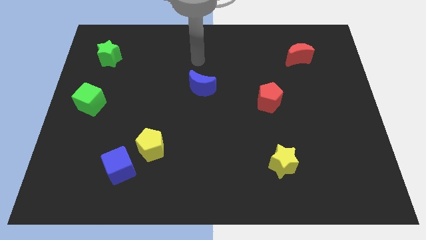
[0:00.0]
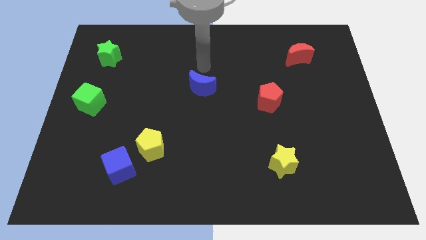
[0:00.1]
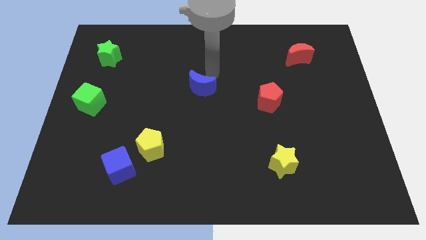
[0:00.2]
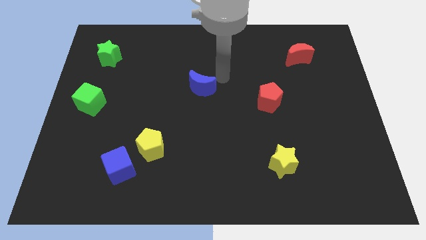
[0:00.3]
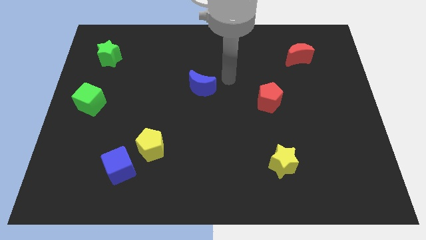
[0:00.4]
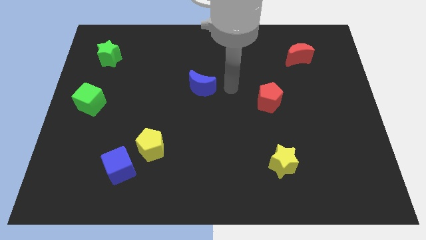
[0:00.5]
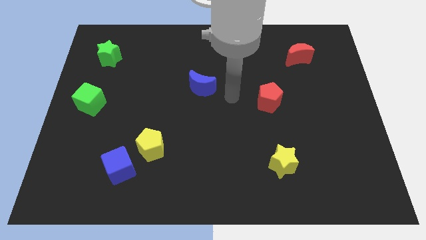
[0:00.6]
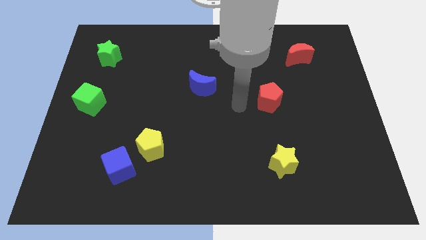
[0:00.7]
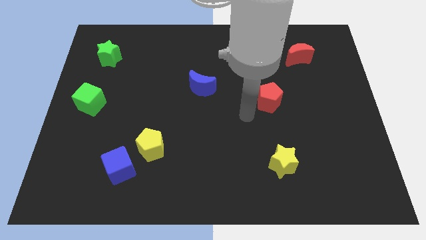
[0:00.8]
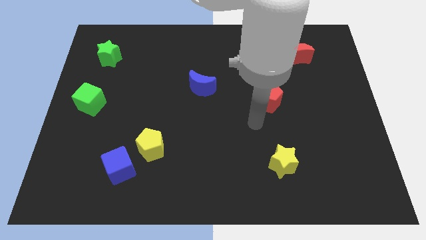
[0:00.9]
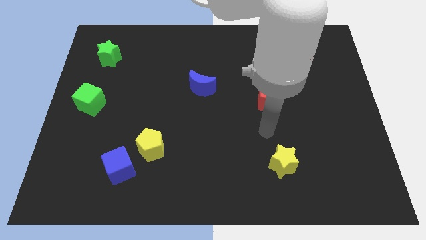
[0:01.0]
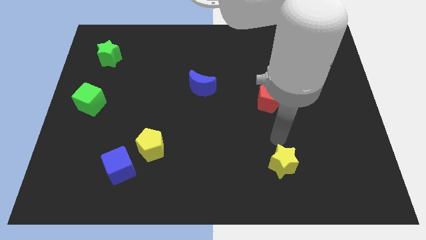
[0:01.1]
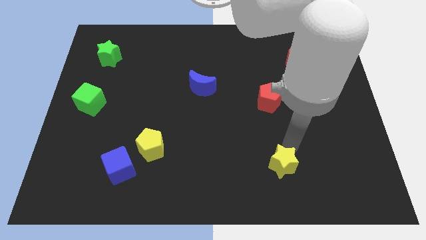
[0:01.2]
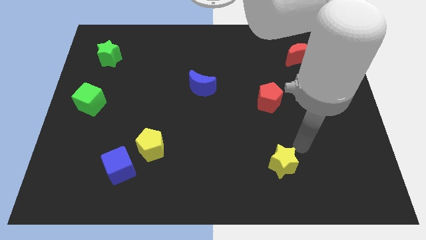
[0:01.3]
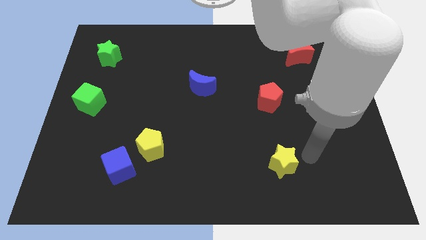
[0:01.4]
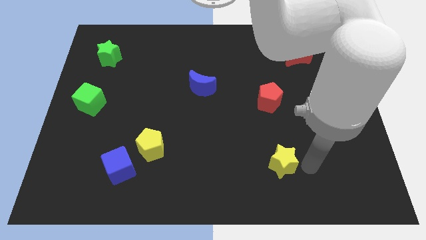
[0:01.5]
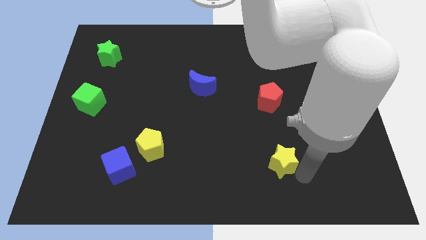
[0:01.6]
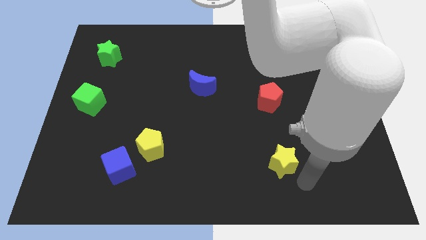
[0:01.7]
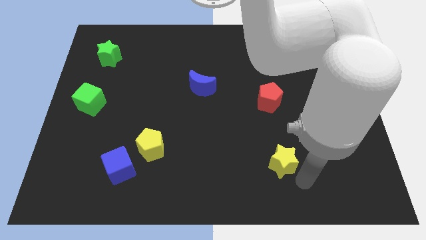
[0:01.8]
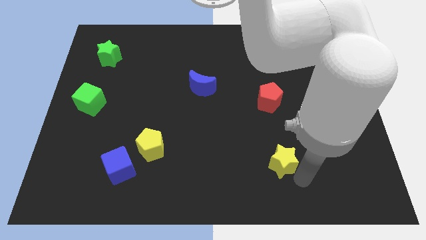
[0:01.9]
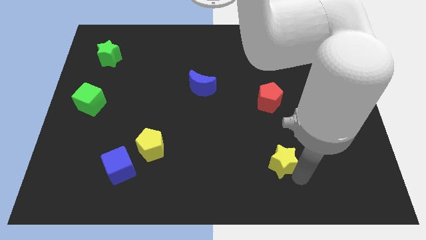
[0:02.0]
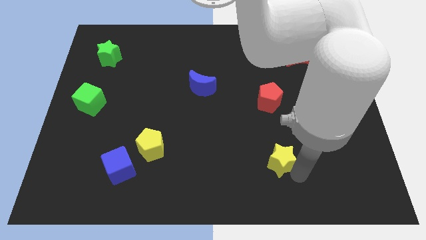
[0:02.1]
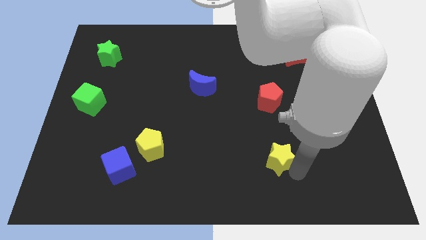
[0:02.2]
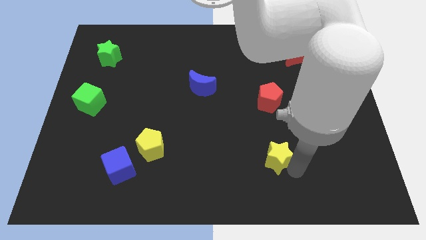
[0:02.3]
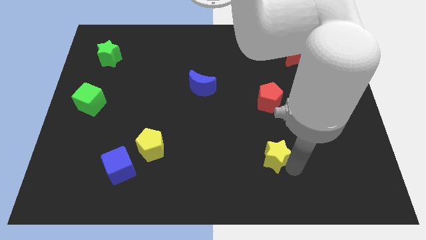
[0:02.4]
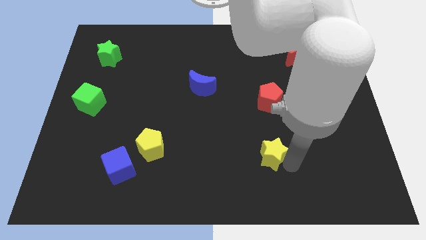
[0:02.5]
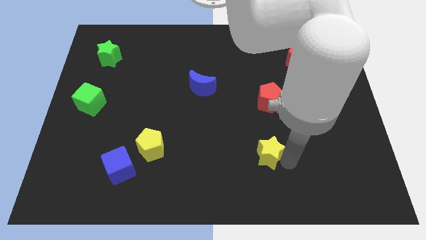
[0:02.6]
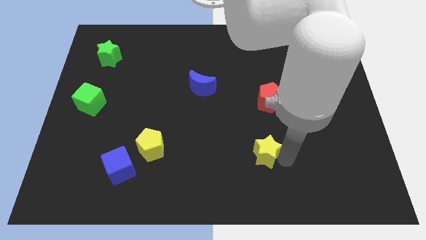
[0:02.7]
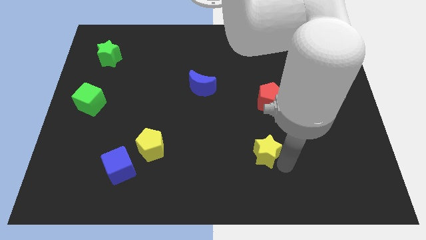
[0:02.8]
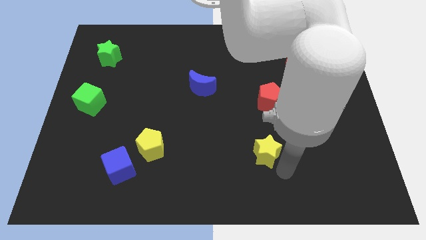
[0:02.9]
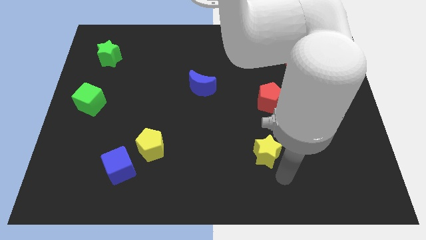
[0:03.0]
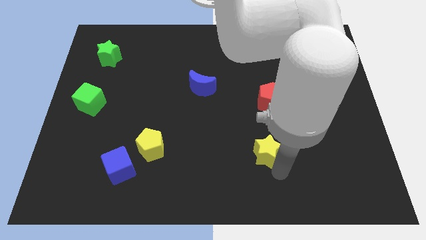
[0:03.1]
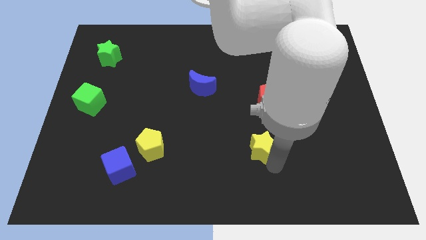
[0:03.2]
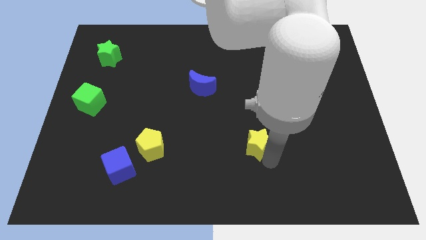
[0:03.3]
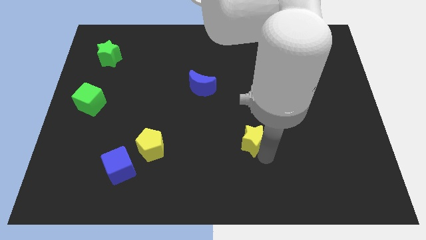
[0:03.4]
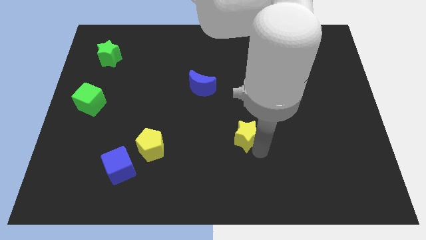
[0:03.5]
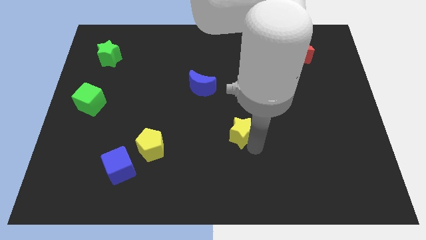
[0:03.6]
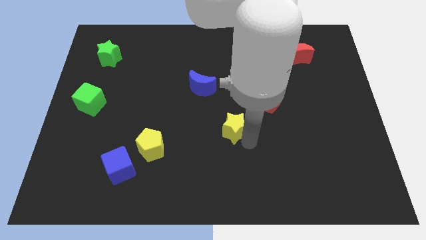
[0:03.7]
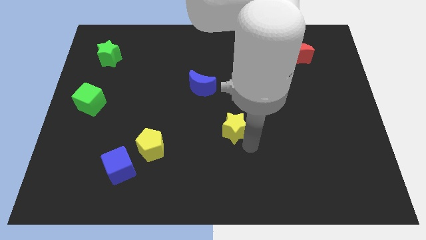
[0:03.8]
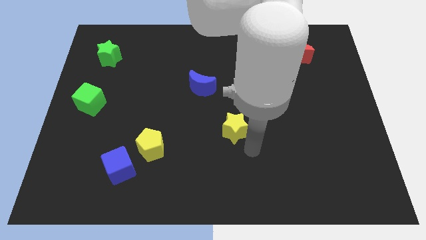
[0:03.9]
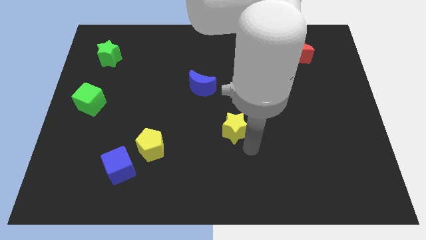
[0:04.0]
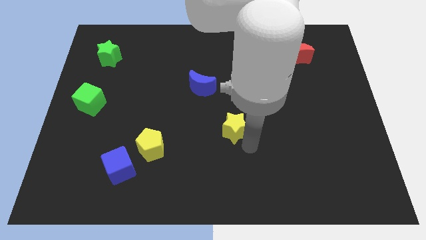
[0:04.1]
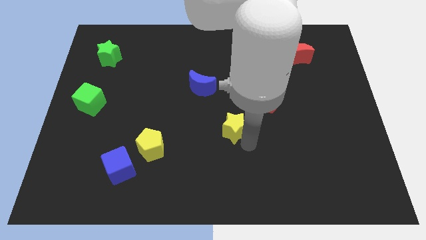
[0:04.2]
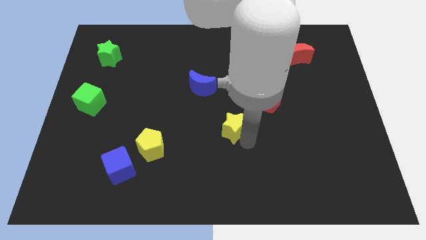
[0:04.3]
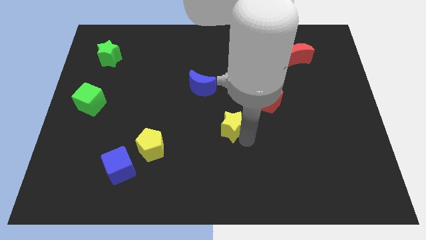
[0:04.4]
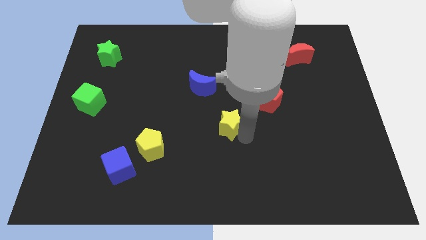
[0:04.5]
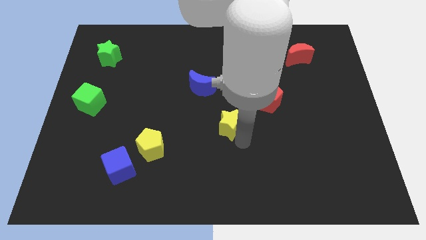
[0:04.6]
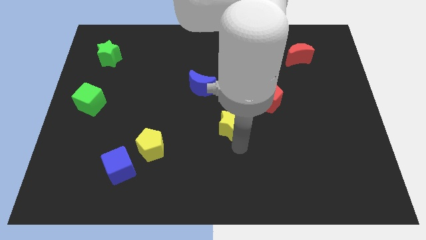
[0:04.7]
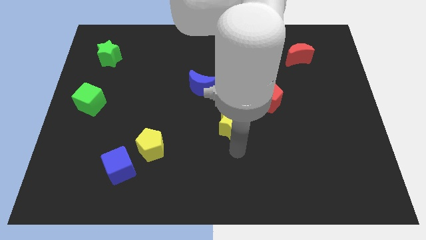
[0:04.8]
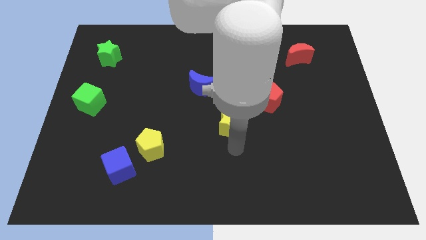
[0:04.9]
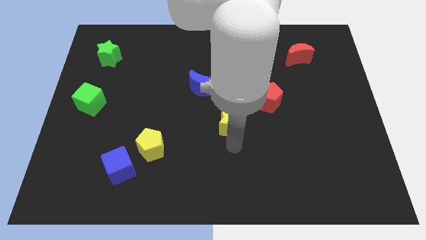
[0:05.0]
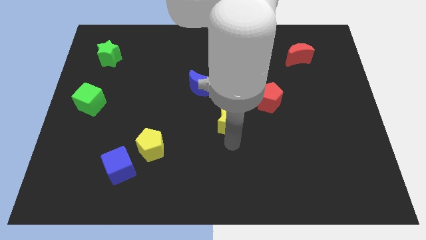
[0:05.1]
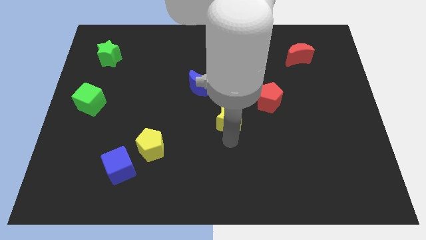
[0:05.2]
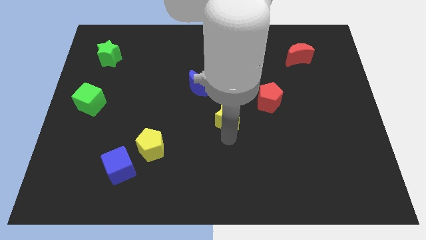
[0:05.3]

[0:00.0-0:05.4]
move the yellow star to the bottom right of the blue moon

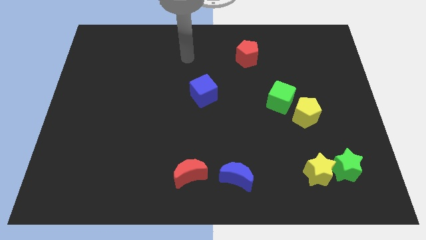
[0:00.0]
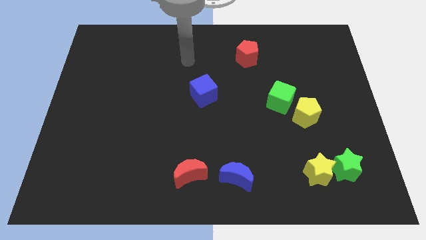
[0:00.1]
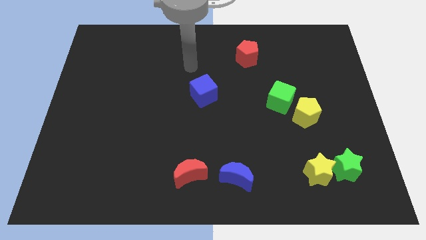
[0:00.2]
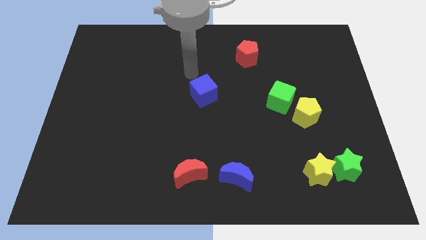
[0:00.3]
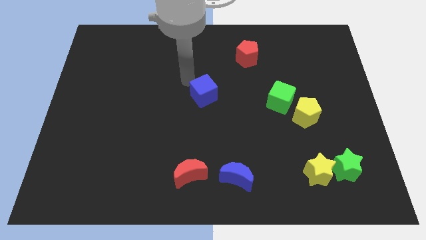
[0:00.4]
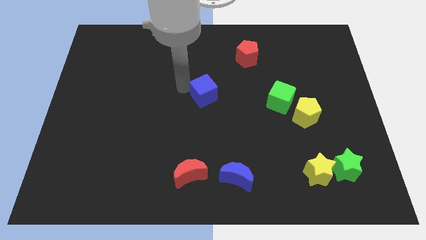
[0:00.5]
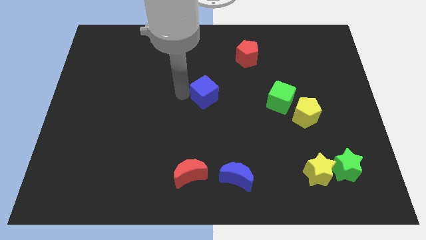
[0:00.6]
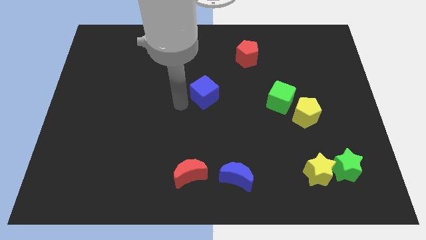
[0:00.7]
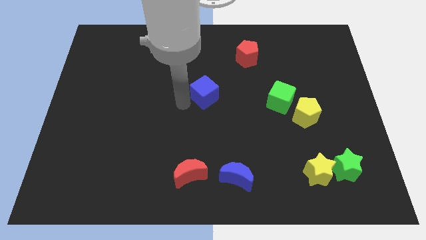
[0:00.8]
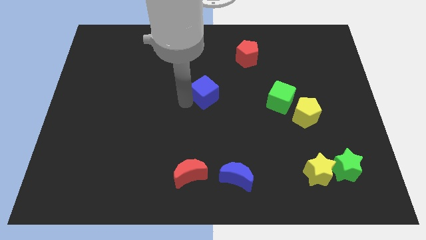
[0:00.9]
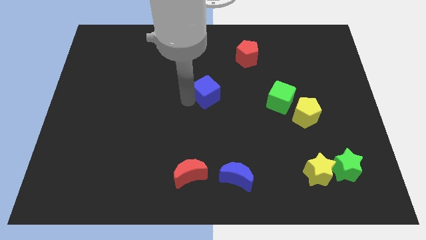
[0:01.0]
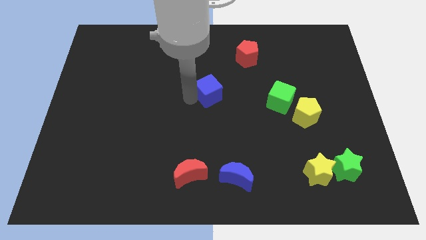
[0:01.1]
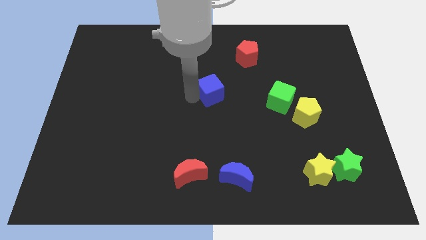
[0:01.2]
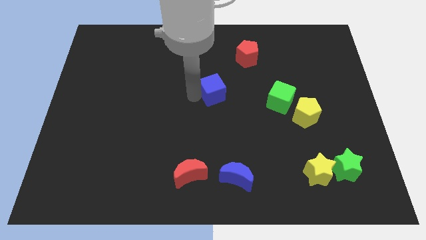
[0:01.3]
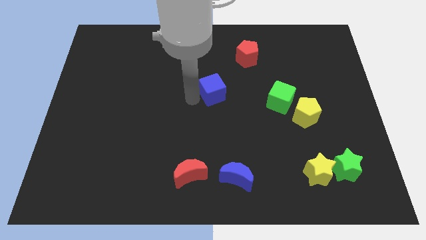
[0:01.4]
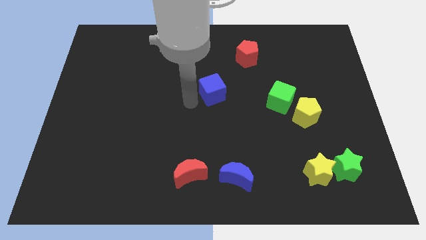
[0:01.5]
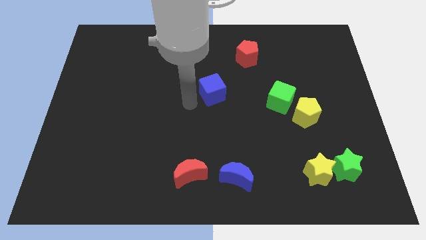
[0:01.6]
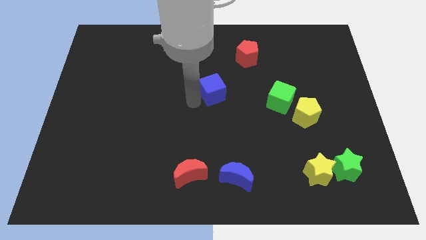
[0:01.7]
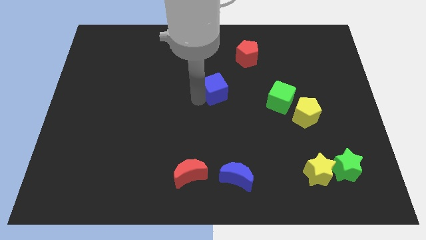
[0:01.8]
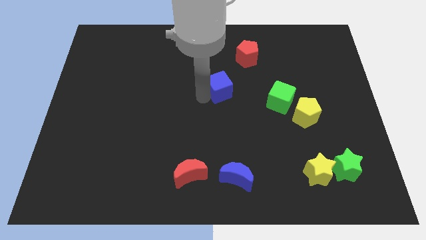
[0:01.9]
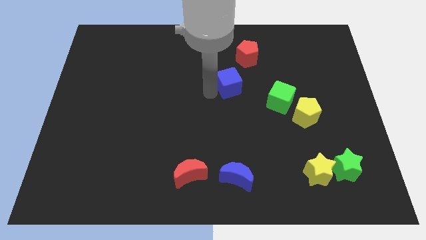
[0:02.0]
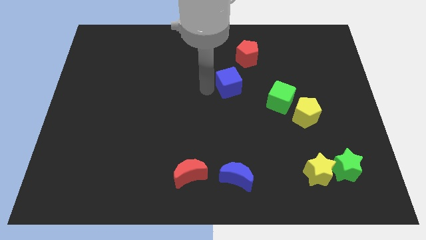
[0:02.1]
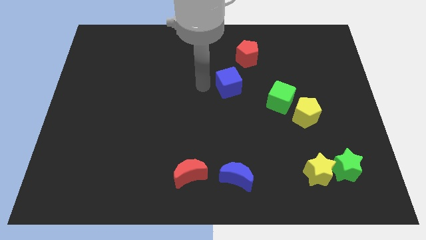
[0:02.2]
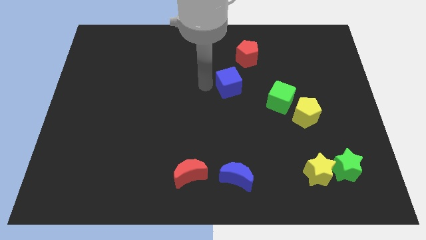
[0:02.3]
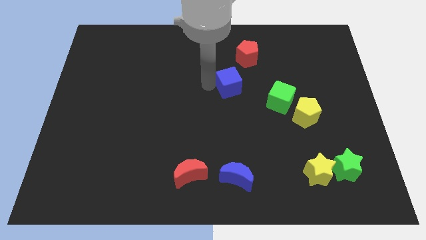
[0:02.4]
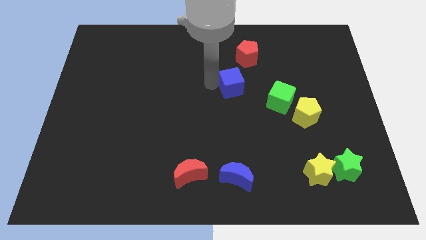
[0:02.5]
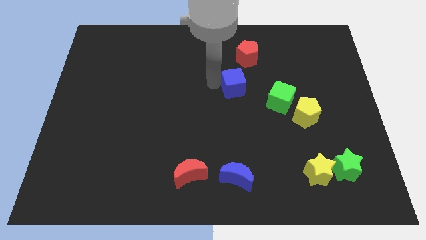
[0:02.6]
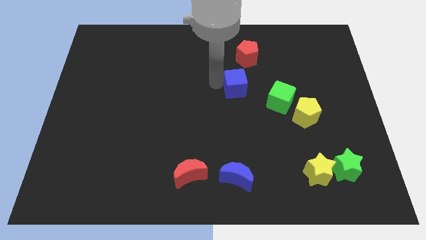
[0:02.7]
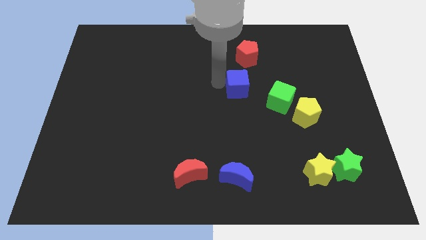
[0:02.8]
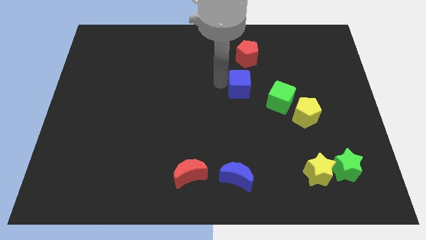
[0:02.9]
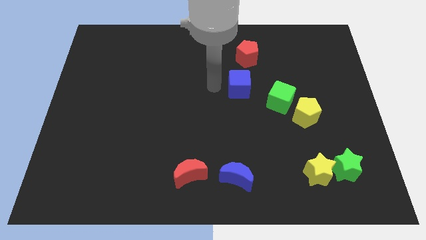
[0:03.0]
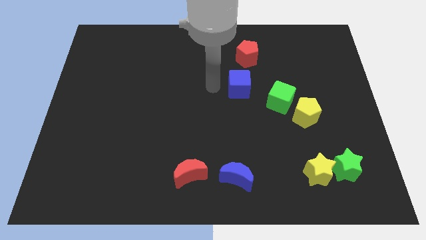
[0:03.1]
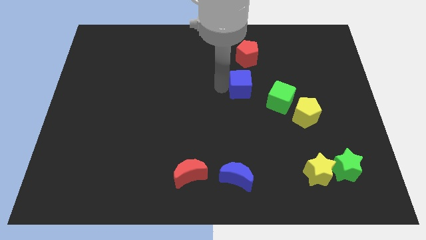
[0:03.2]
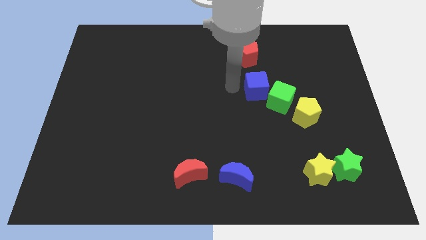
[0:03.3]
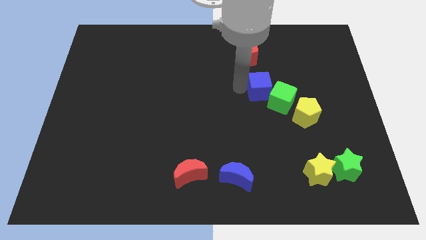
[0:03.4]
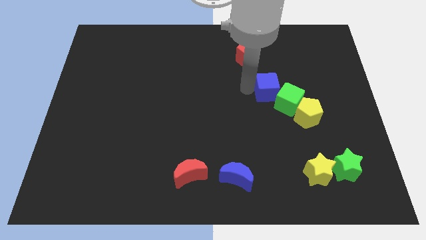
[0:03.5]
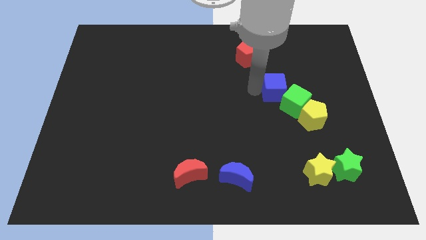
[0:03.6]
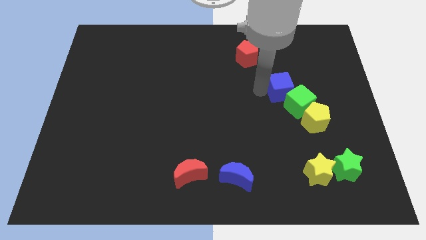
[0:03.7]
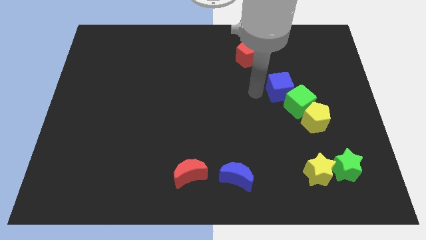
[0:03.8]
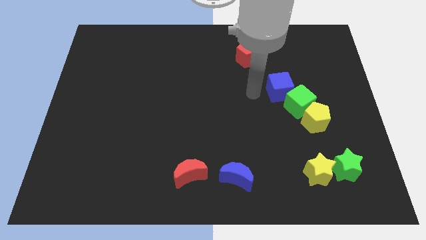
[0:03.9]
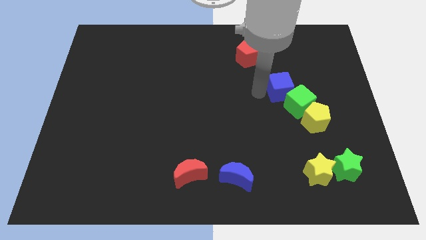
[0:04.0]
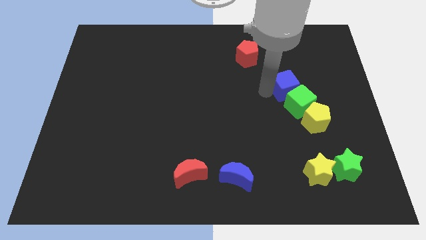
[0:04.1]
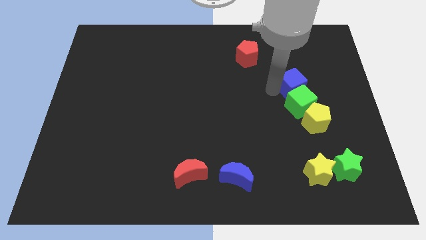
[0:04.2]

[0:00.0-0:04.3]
put the blue cube to the top of the yellow pentagon
